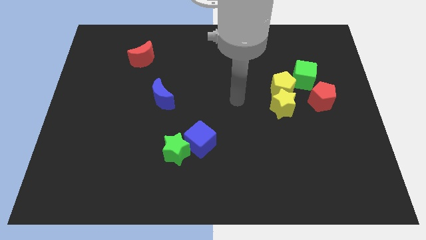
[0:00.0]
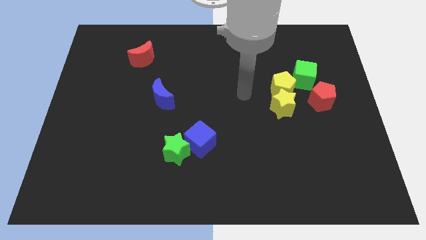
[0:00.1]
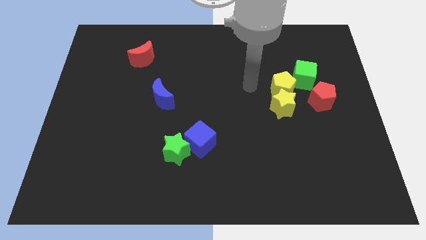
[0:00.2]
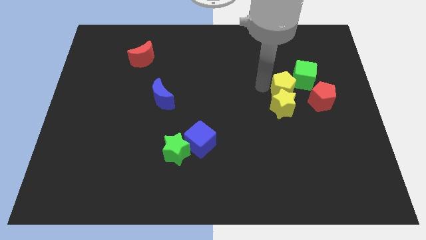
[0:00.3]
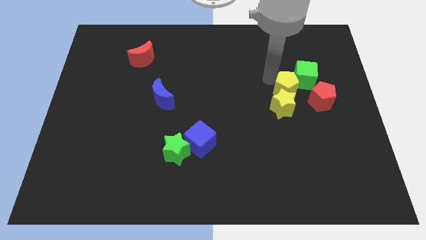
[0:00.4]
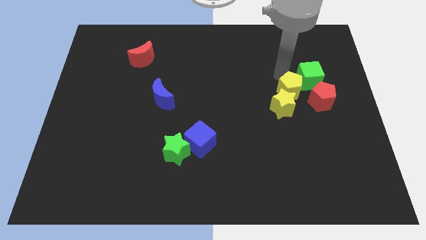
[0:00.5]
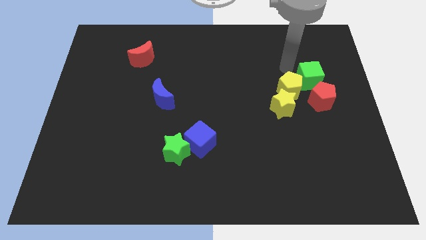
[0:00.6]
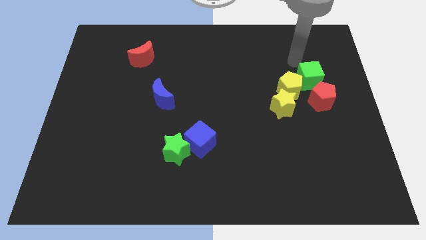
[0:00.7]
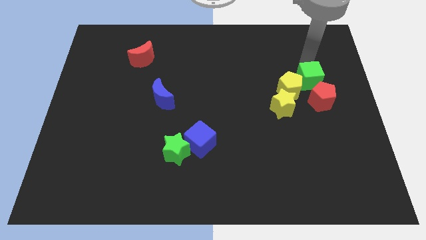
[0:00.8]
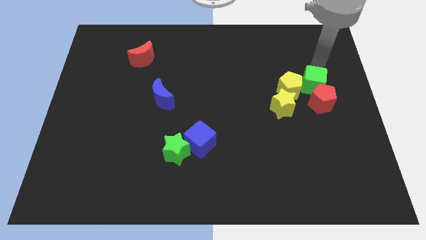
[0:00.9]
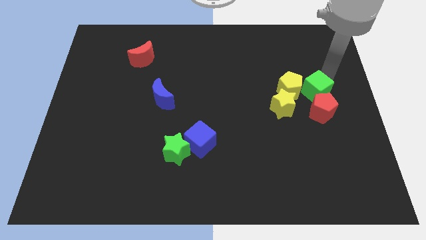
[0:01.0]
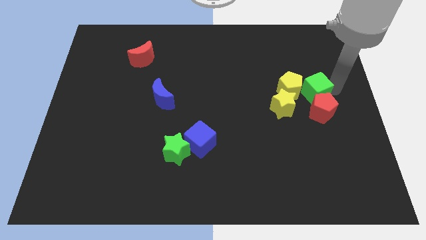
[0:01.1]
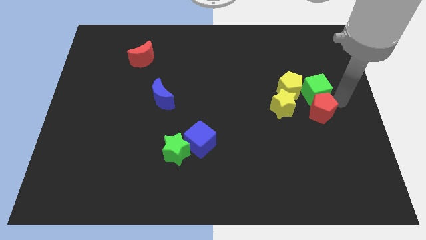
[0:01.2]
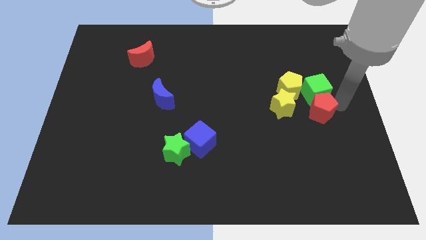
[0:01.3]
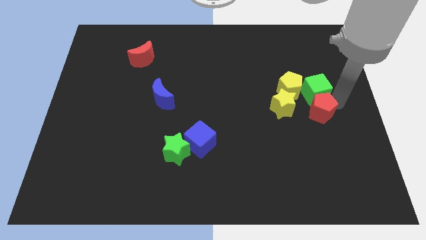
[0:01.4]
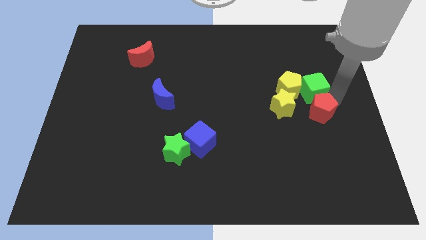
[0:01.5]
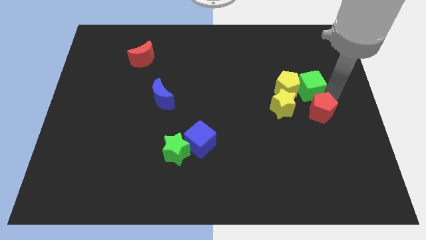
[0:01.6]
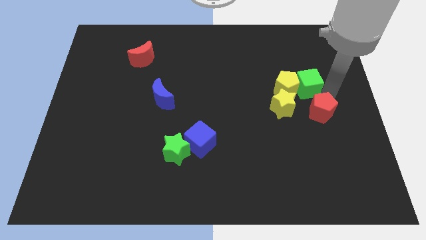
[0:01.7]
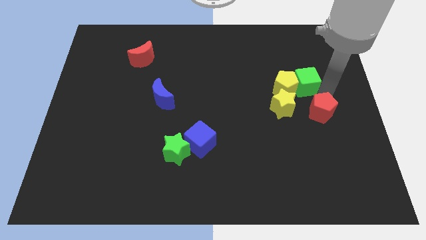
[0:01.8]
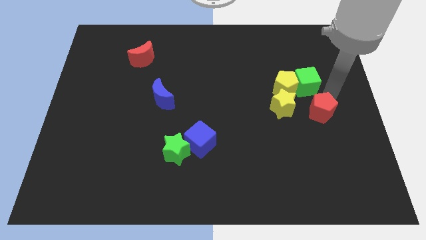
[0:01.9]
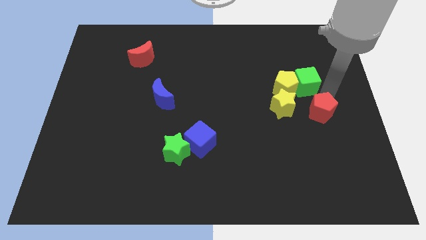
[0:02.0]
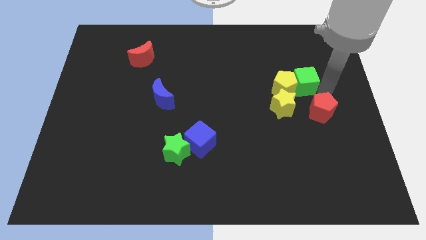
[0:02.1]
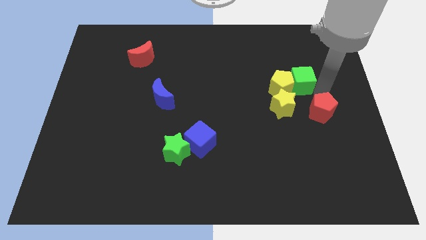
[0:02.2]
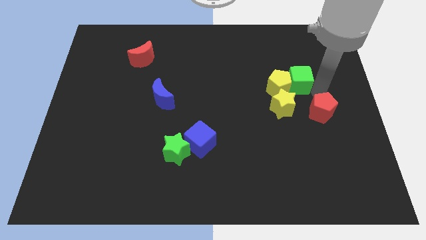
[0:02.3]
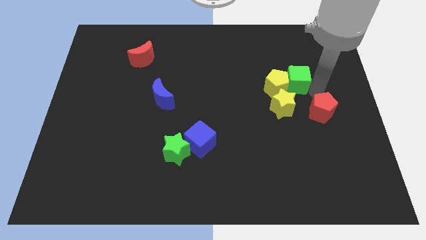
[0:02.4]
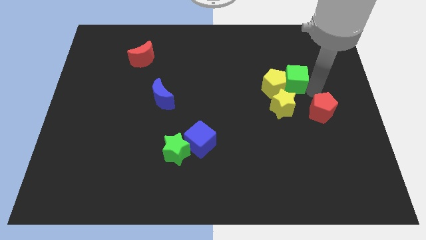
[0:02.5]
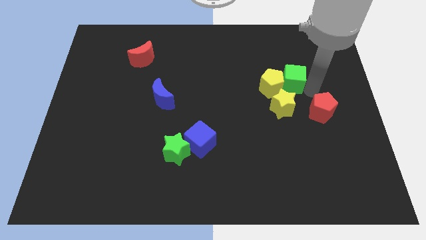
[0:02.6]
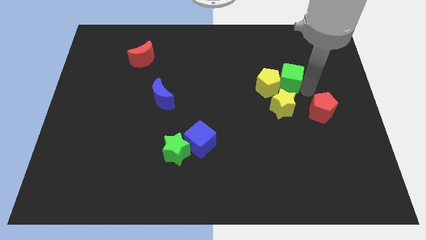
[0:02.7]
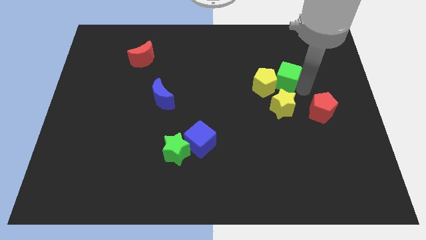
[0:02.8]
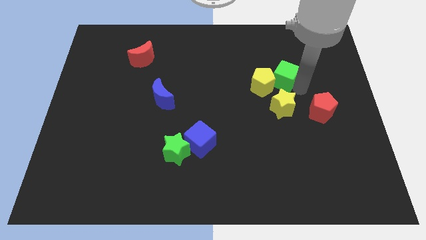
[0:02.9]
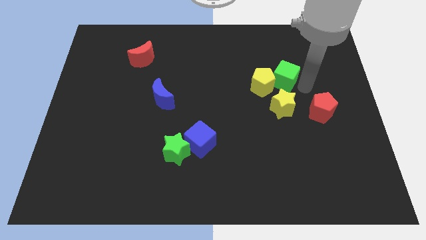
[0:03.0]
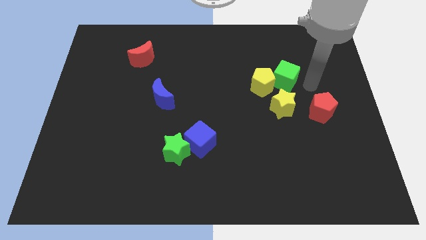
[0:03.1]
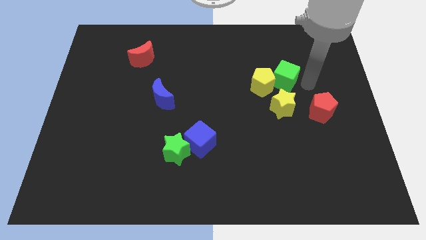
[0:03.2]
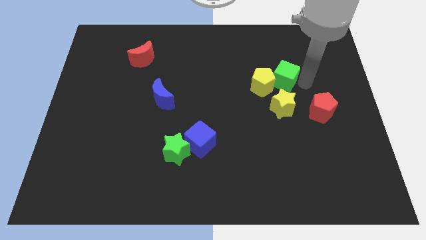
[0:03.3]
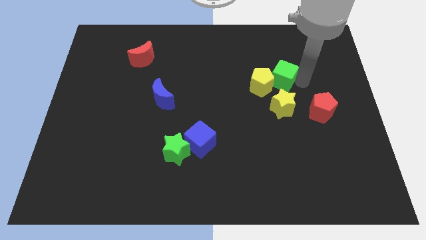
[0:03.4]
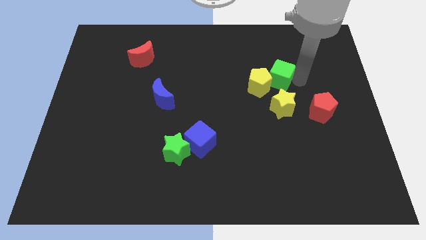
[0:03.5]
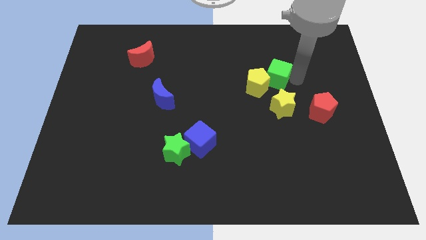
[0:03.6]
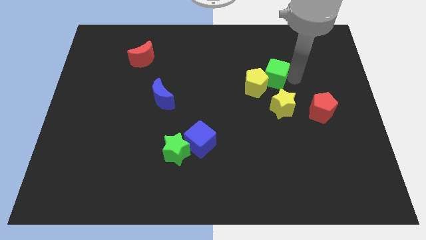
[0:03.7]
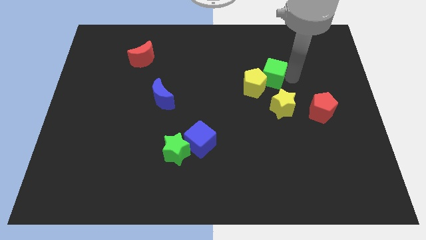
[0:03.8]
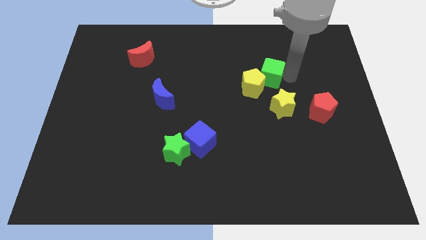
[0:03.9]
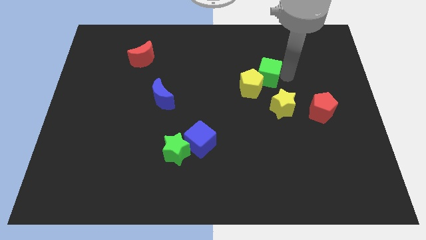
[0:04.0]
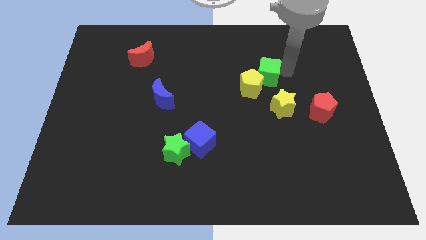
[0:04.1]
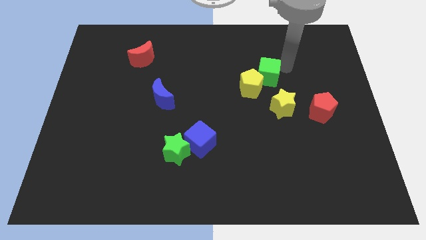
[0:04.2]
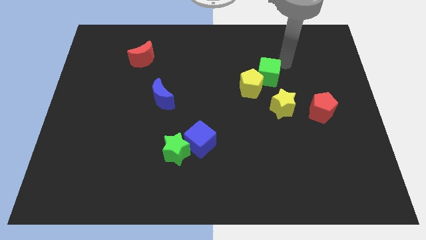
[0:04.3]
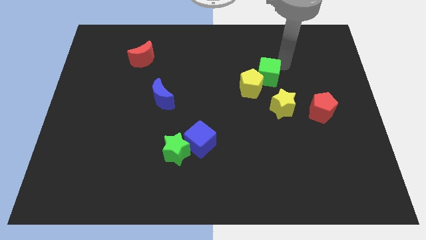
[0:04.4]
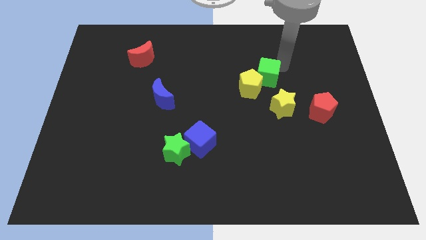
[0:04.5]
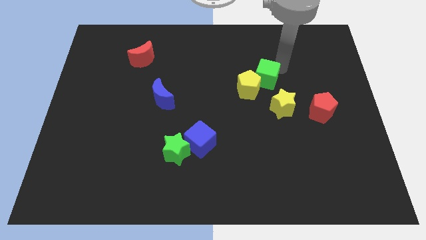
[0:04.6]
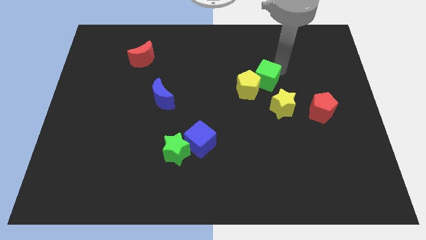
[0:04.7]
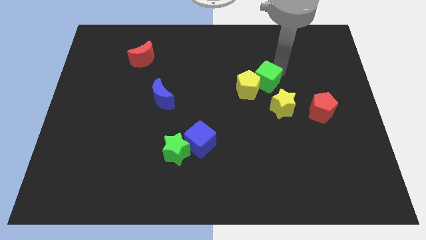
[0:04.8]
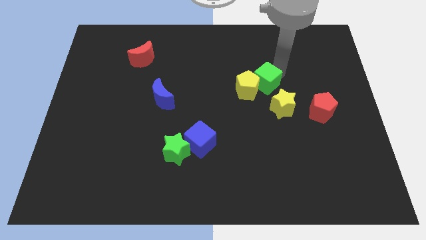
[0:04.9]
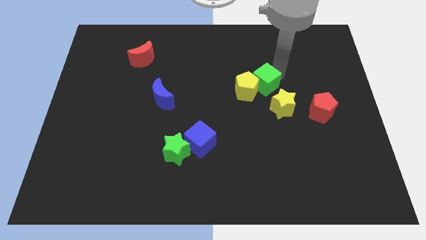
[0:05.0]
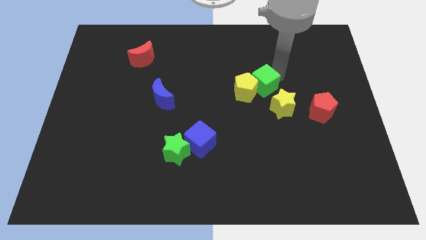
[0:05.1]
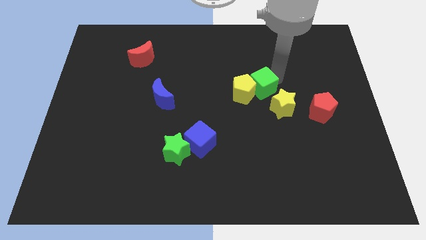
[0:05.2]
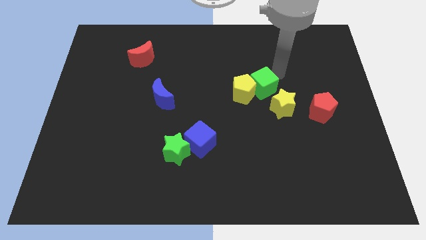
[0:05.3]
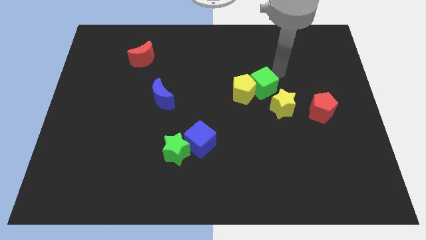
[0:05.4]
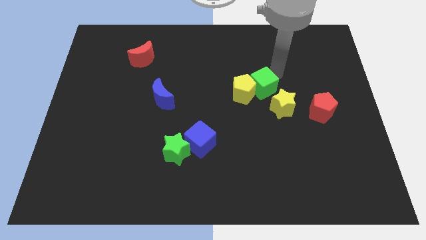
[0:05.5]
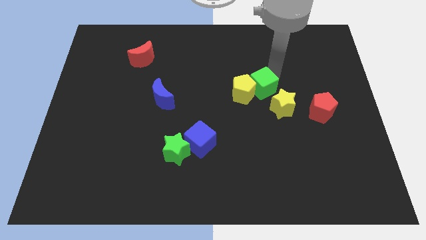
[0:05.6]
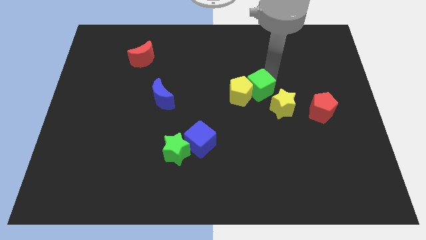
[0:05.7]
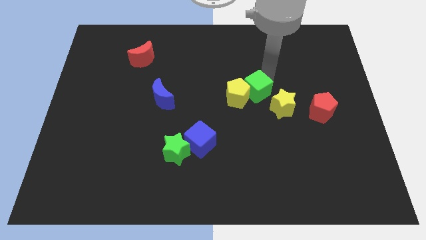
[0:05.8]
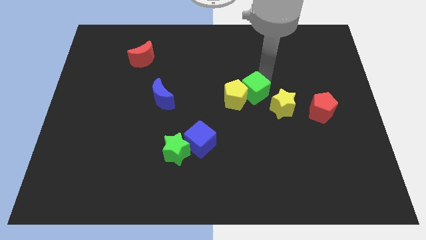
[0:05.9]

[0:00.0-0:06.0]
slide the green cube just left of the yellow star

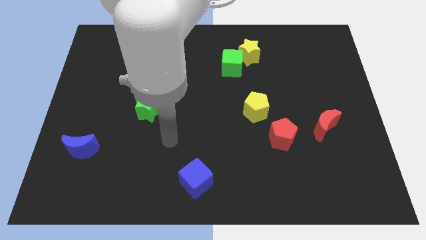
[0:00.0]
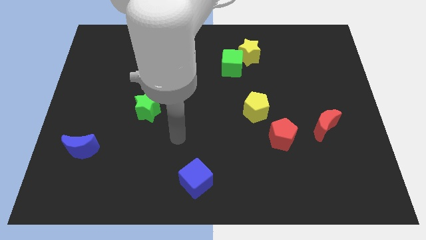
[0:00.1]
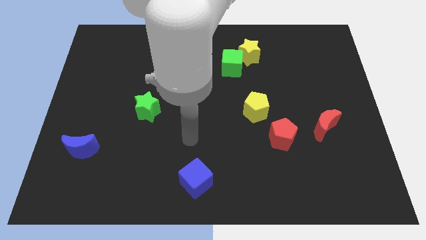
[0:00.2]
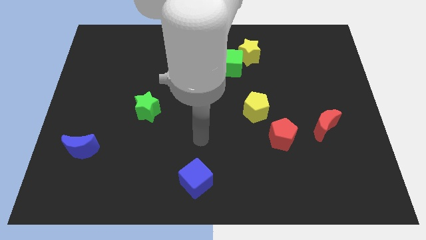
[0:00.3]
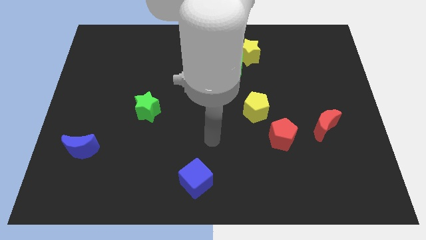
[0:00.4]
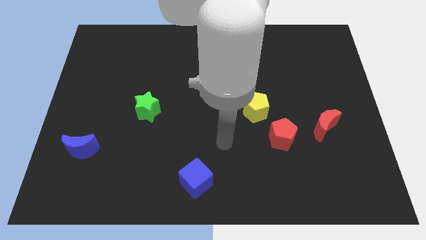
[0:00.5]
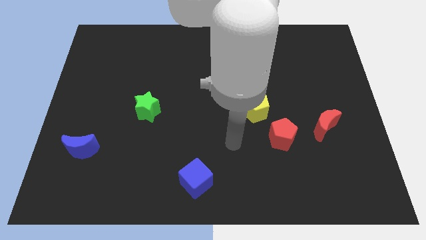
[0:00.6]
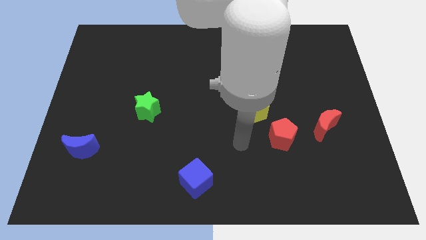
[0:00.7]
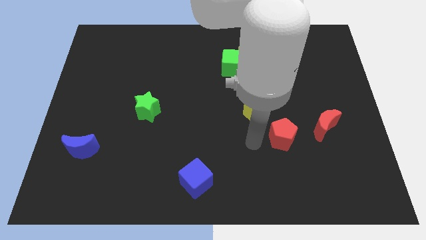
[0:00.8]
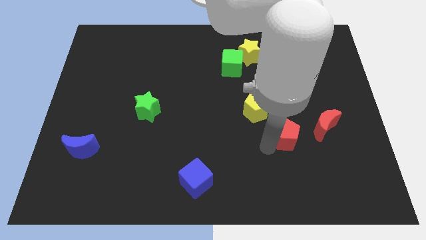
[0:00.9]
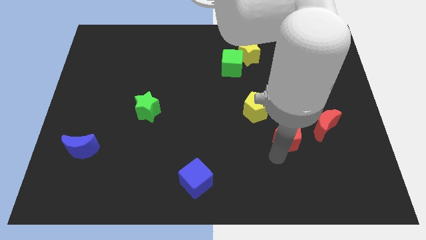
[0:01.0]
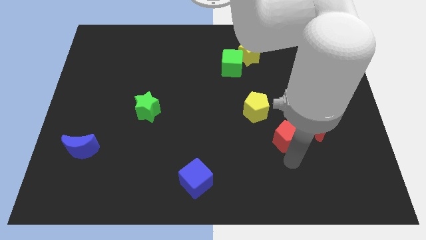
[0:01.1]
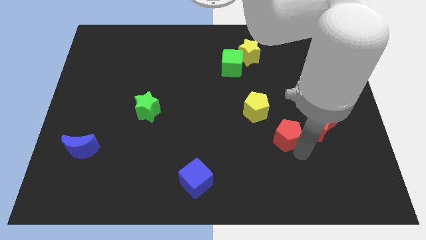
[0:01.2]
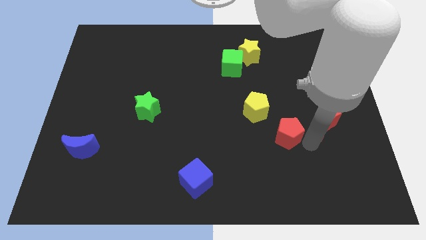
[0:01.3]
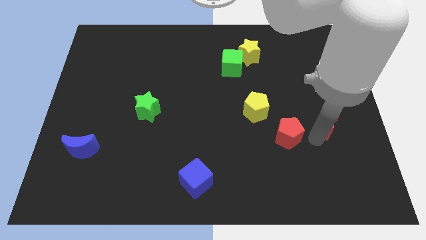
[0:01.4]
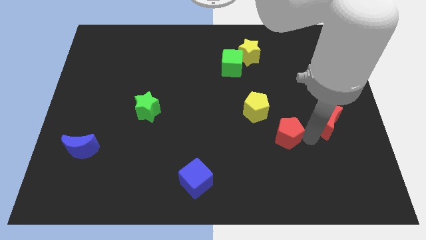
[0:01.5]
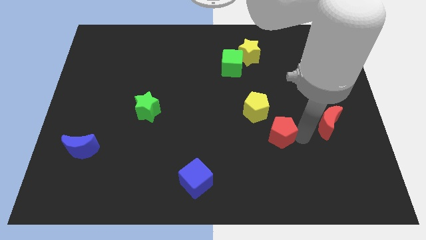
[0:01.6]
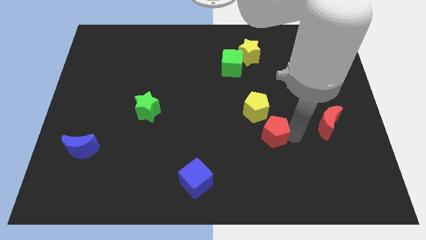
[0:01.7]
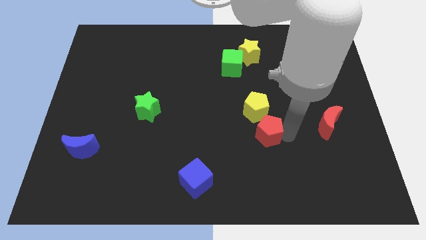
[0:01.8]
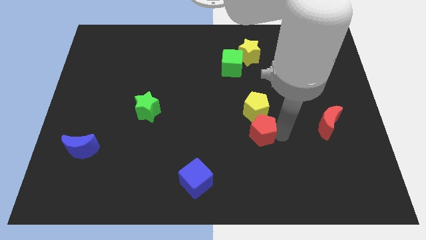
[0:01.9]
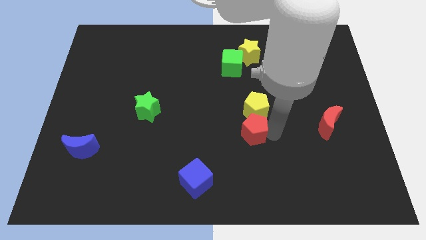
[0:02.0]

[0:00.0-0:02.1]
move the red pentagon to the bottom left of the yellow pentagon
